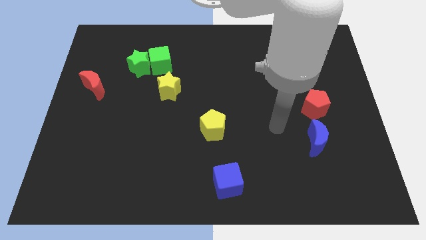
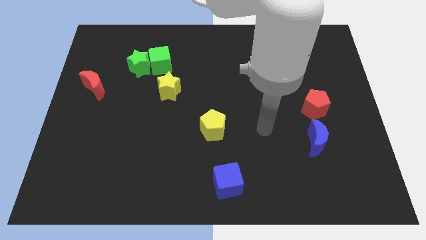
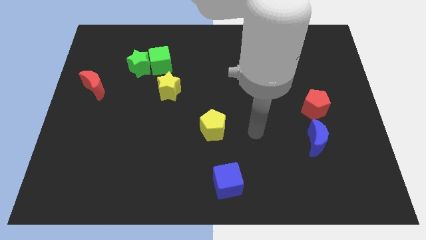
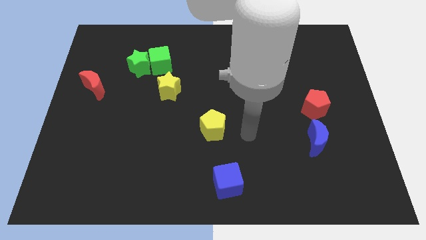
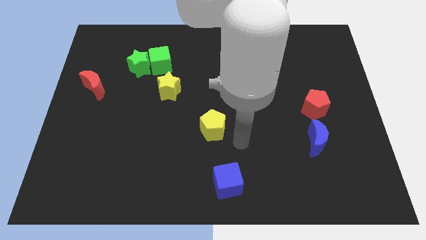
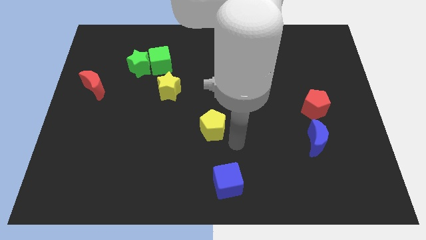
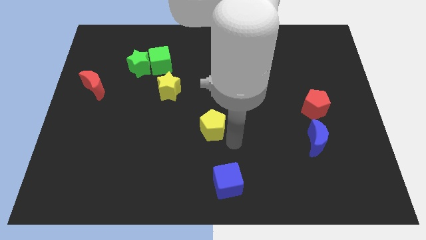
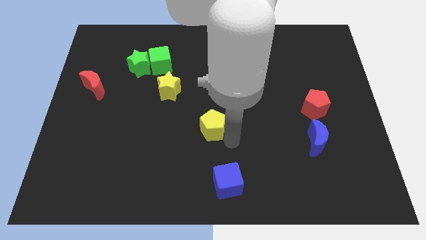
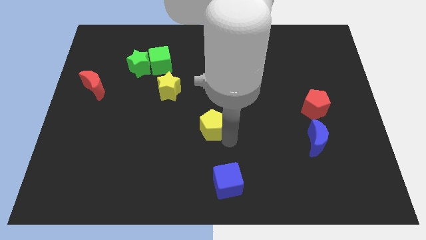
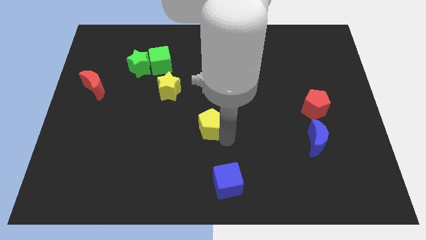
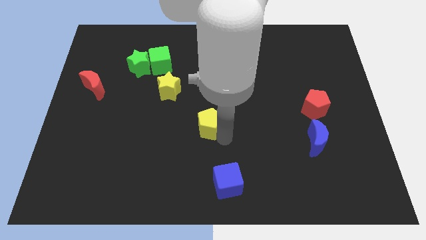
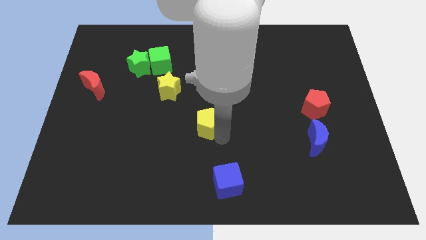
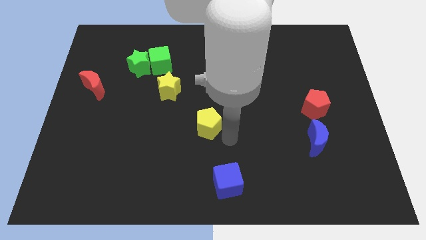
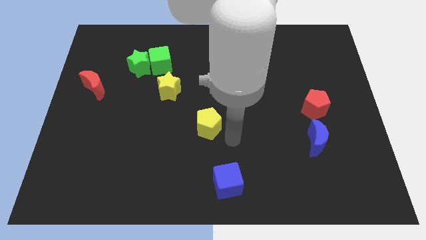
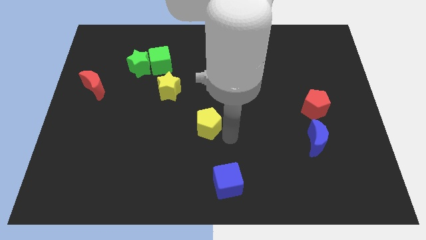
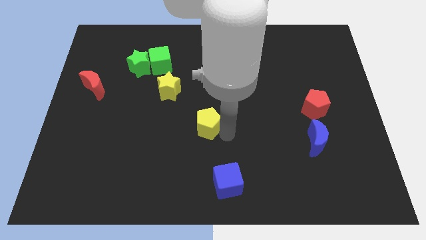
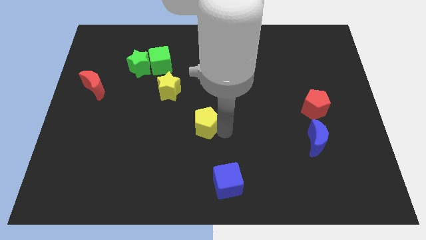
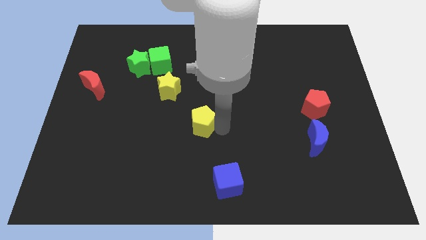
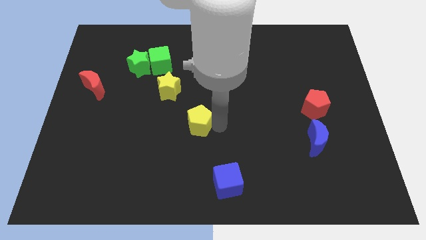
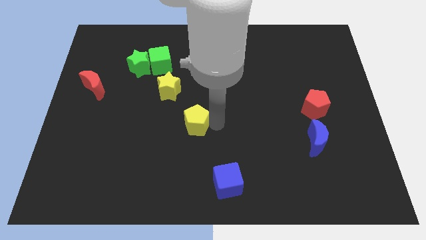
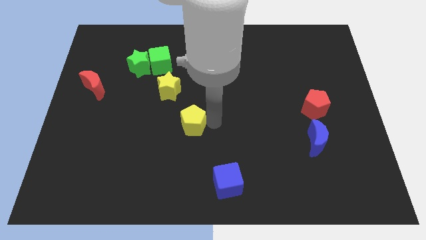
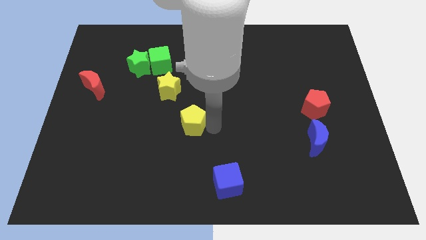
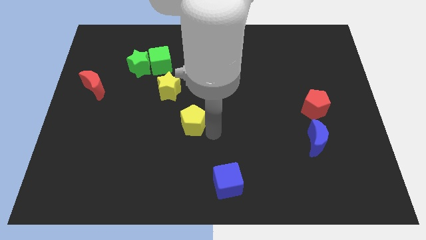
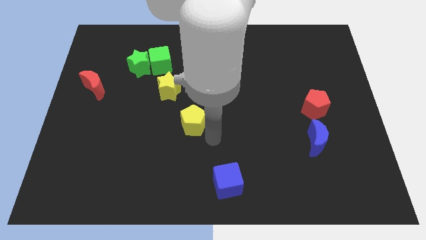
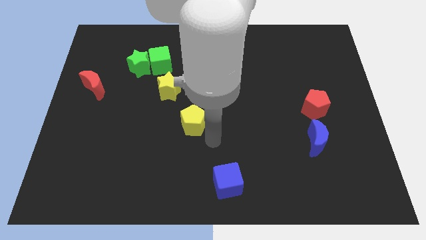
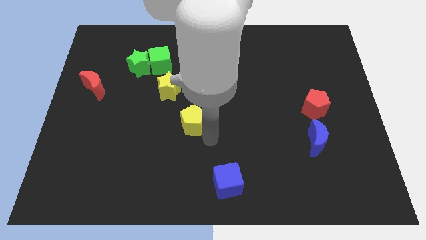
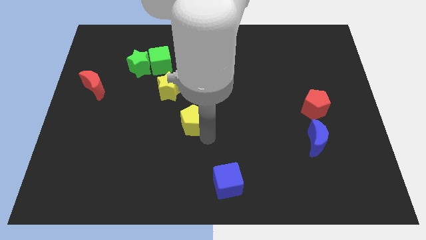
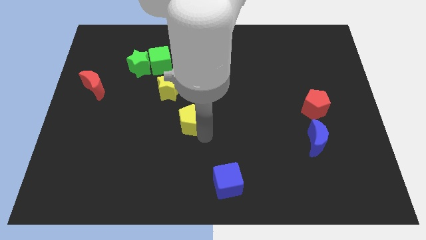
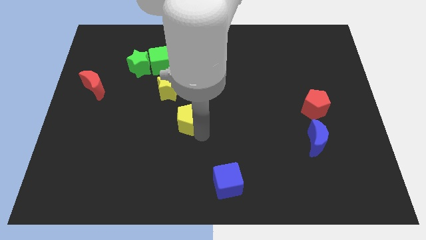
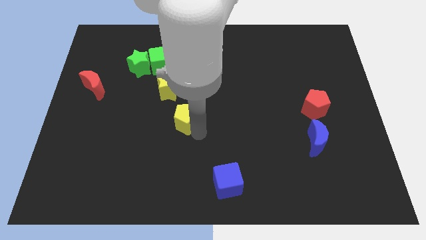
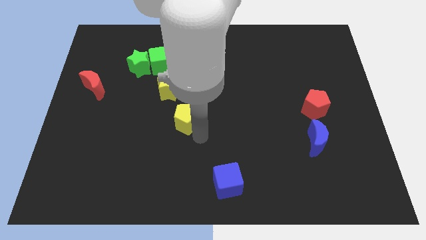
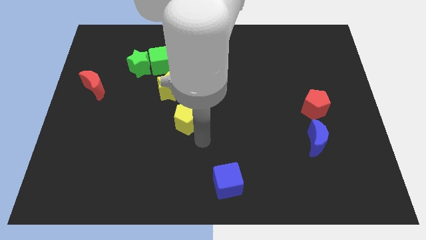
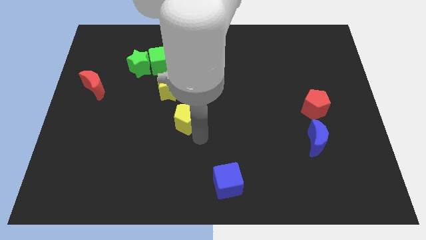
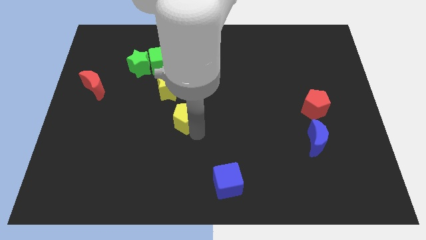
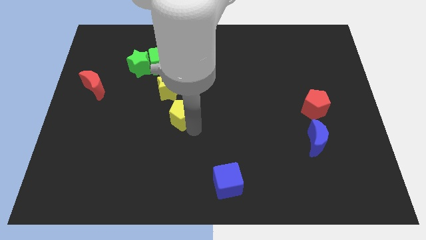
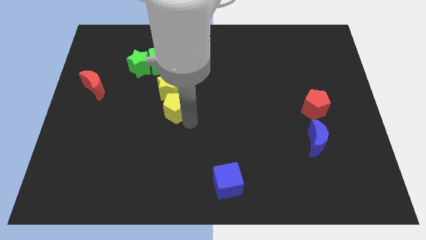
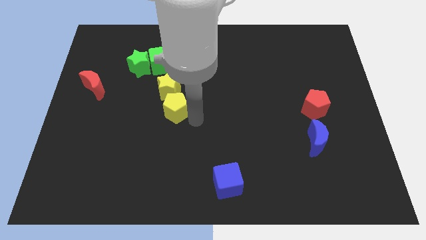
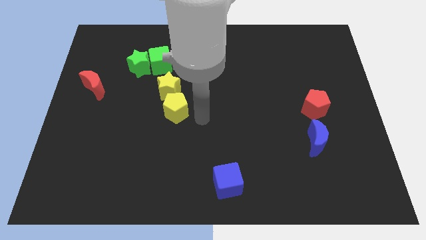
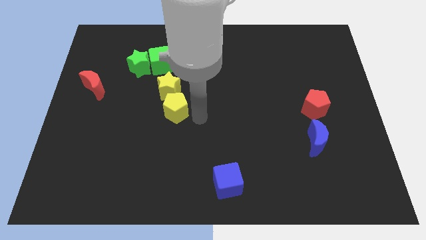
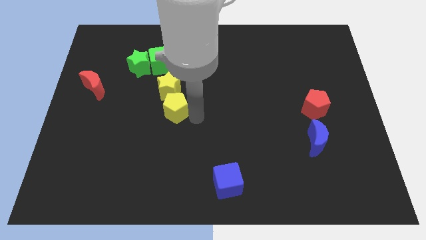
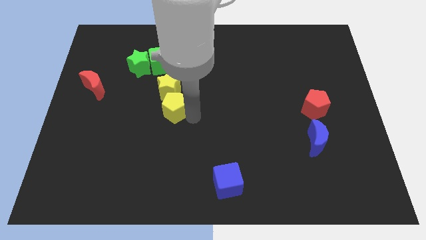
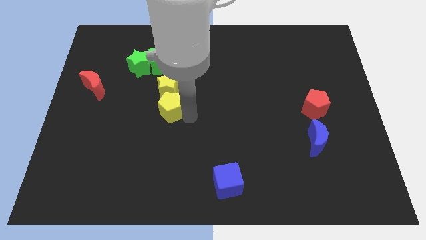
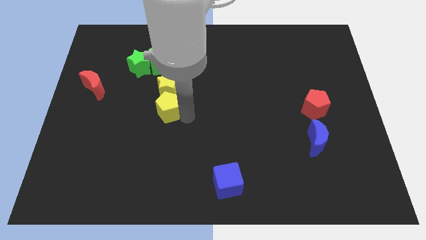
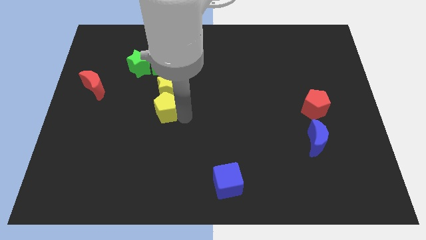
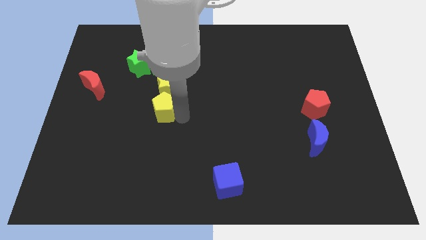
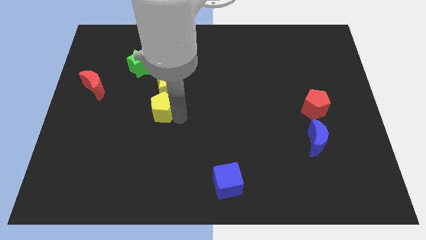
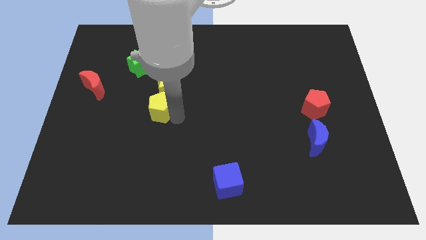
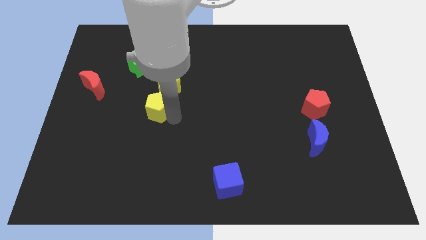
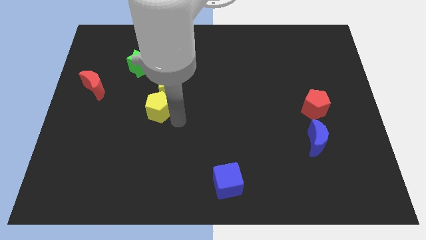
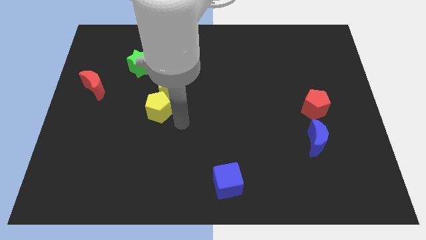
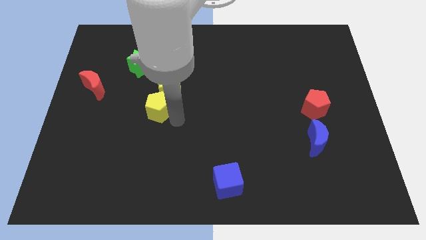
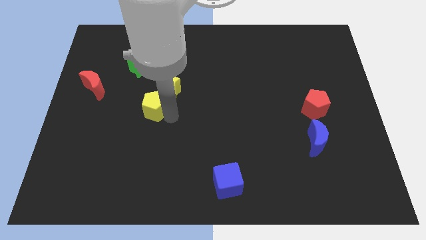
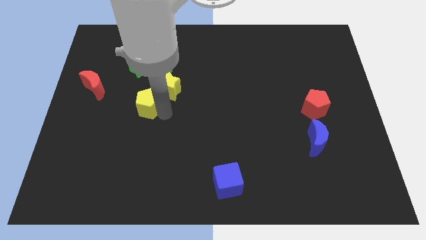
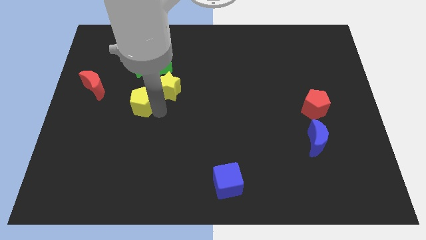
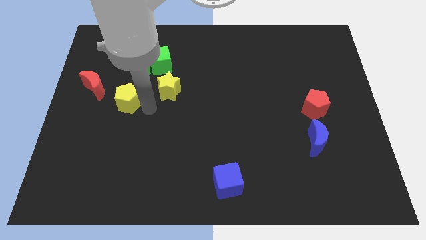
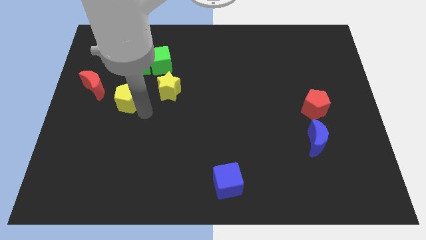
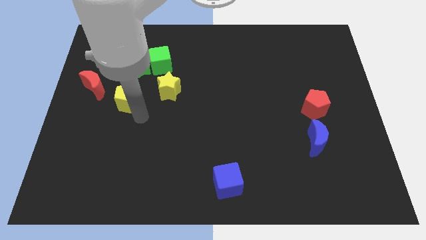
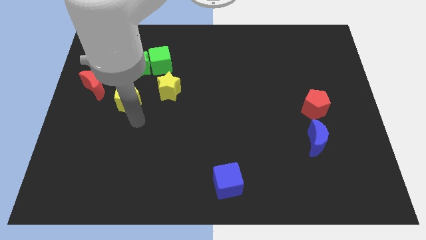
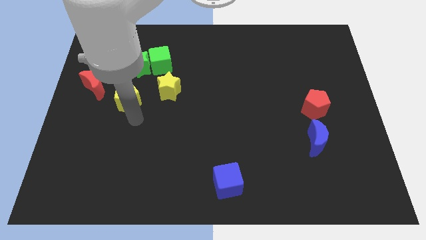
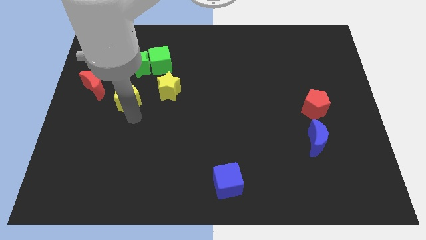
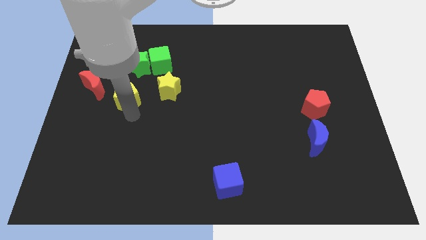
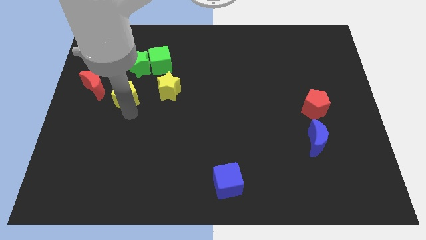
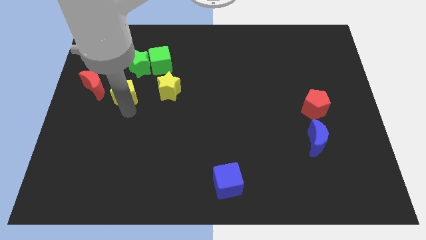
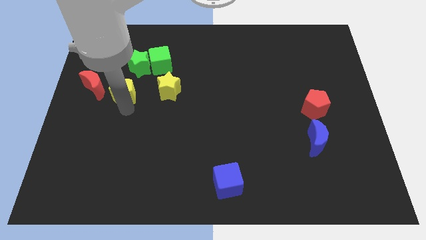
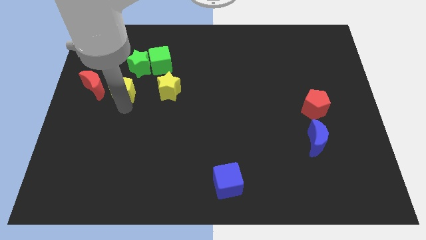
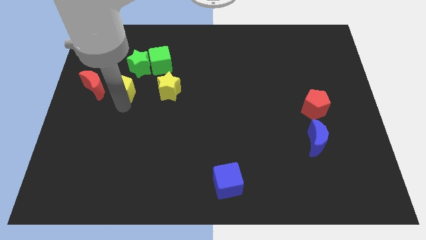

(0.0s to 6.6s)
slide the yellow pentagon diagonally upwards and to the left

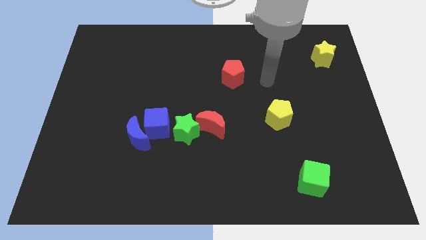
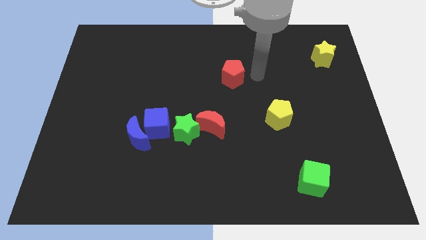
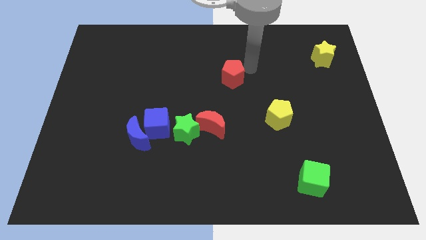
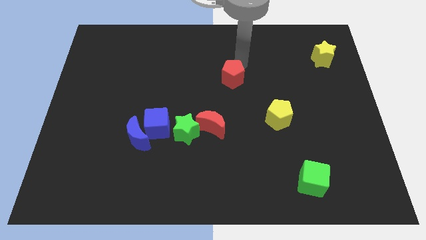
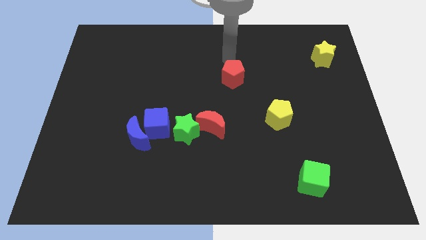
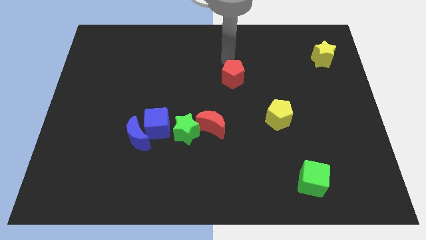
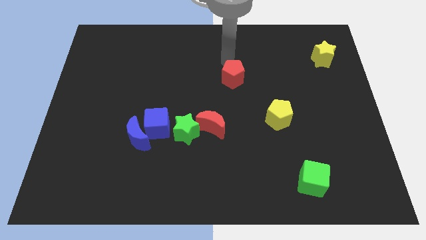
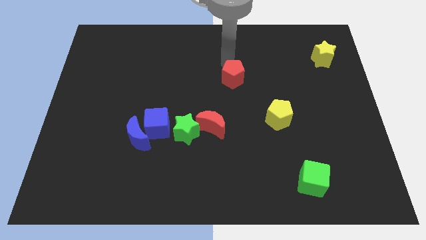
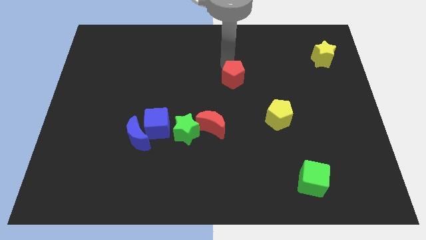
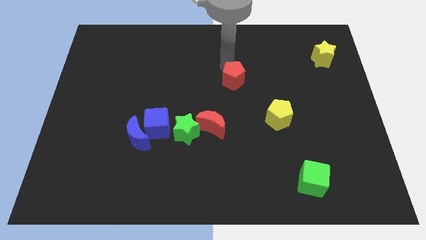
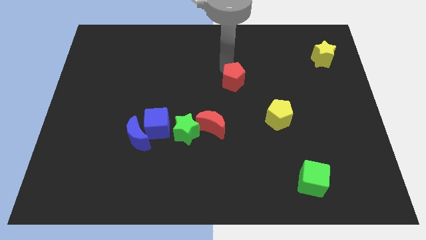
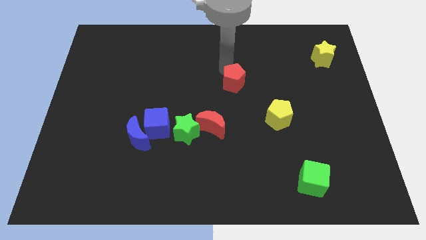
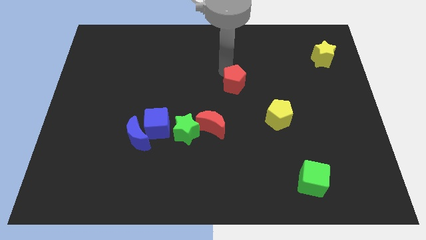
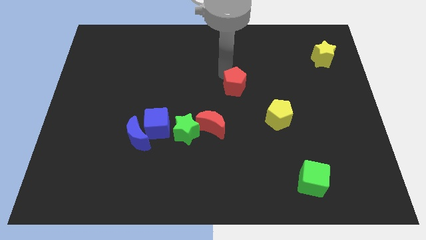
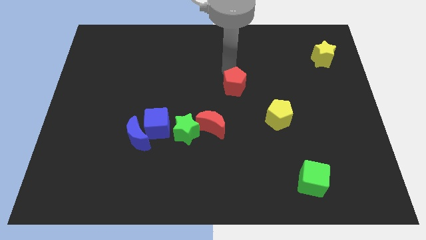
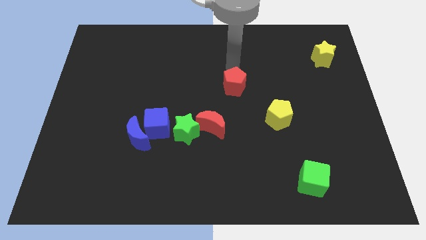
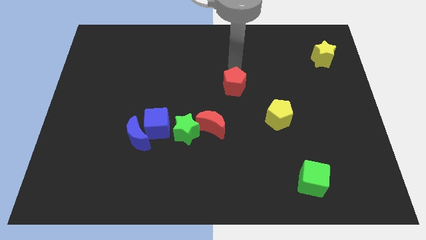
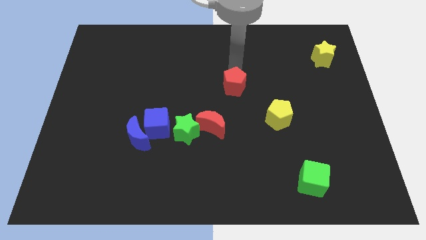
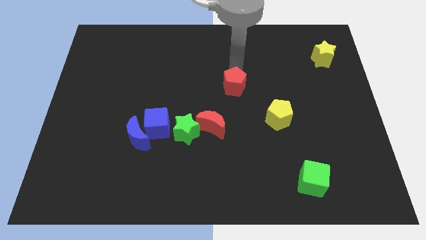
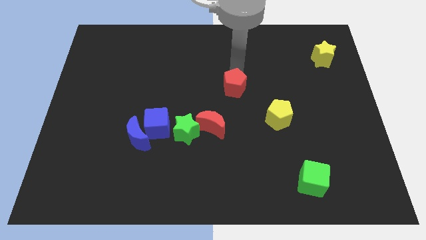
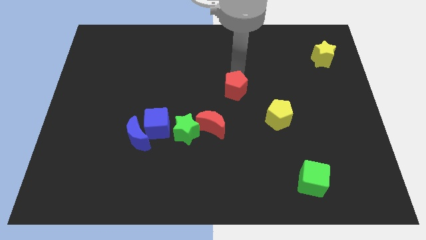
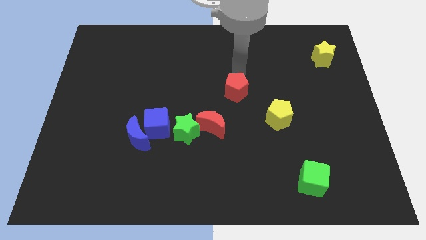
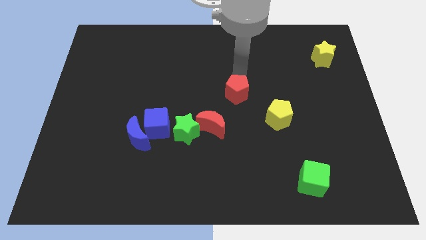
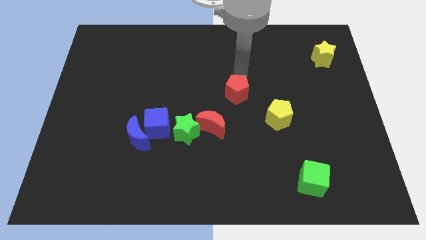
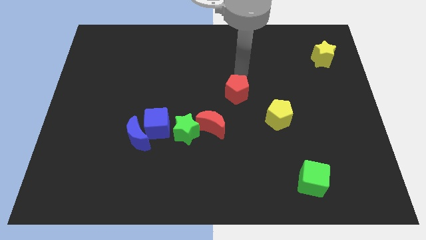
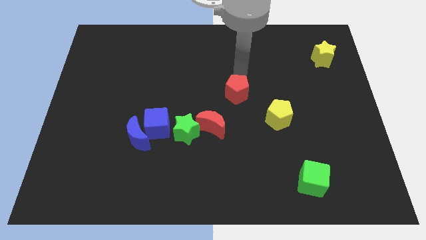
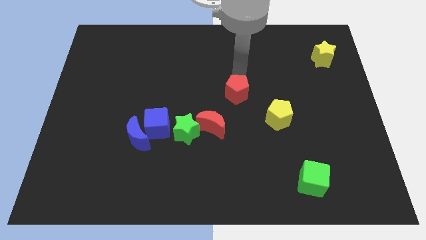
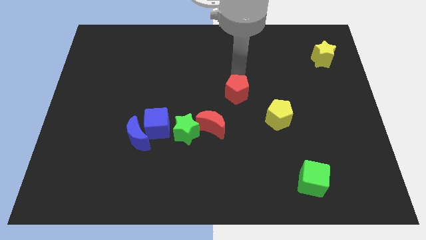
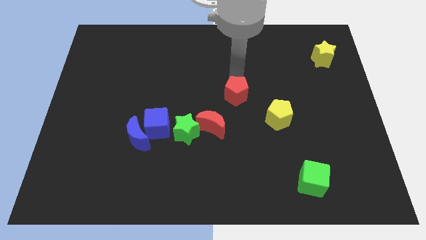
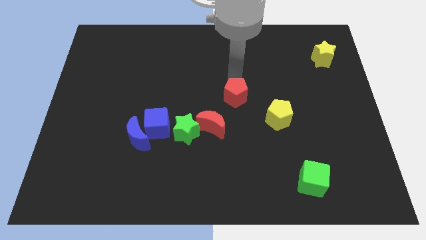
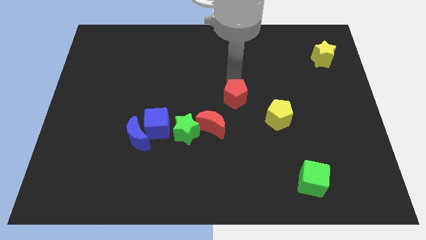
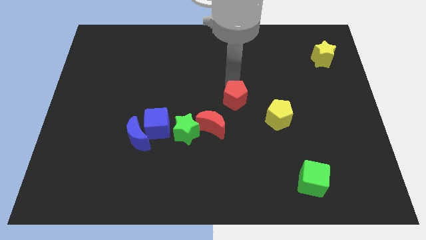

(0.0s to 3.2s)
push the red pentagon a little bit downwards
